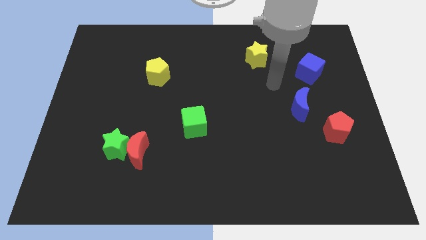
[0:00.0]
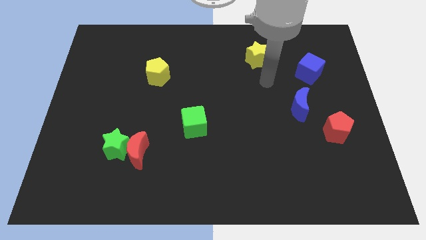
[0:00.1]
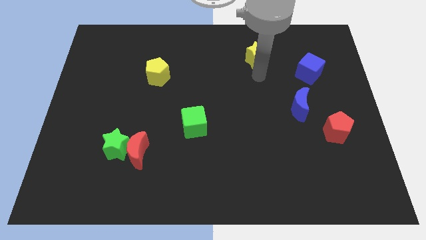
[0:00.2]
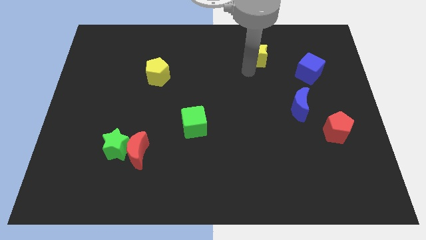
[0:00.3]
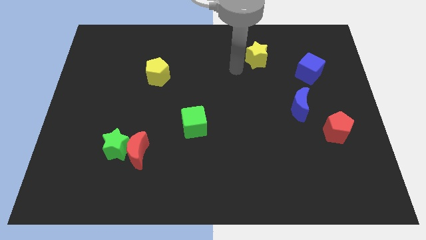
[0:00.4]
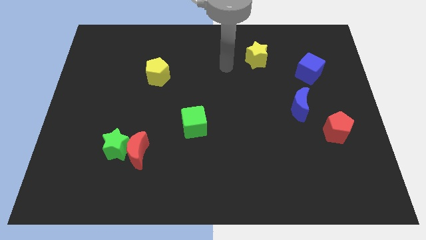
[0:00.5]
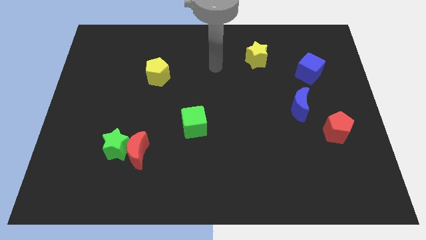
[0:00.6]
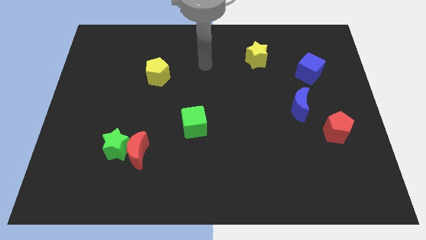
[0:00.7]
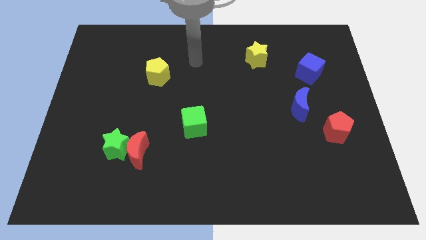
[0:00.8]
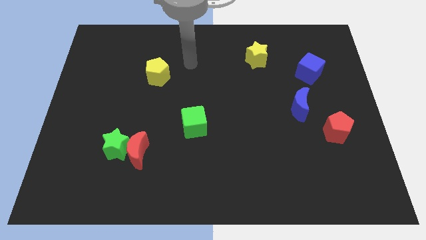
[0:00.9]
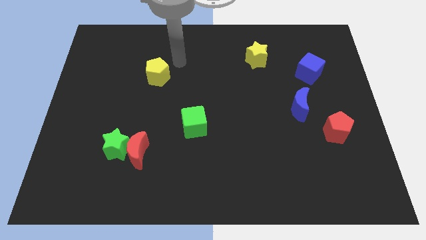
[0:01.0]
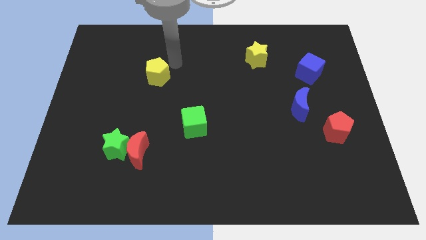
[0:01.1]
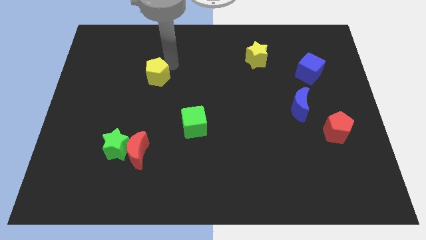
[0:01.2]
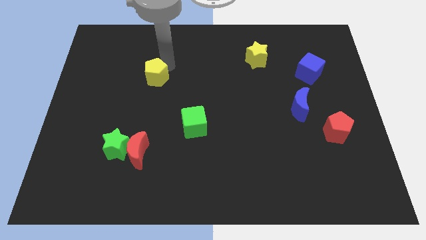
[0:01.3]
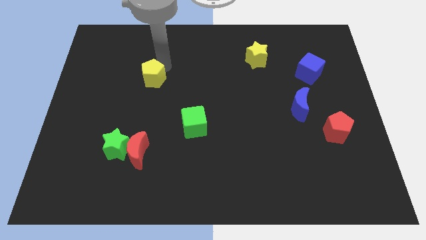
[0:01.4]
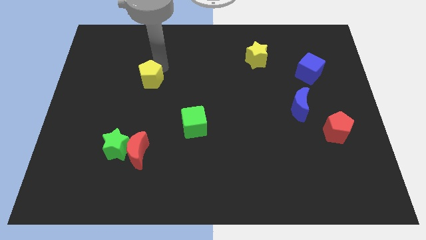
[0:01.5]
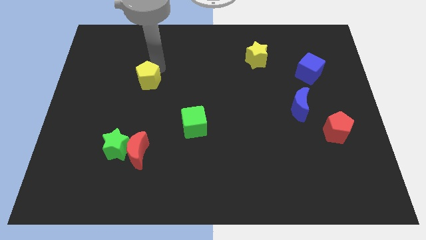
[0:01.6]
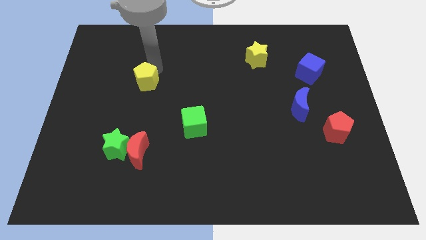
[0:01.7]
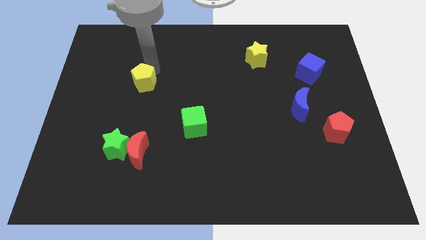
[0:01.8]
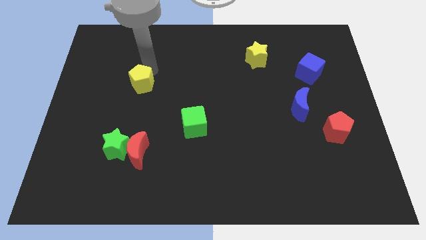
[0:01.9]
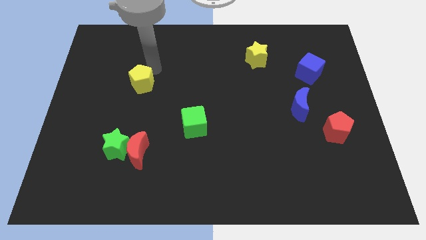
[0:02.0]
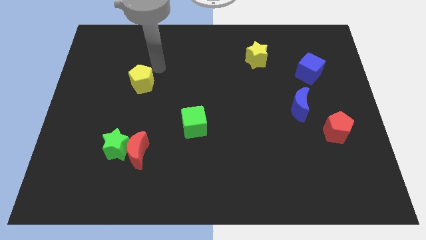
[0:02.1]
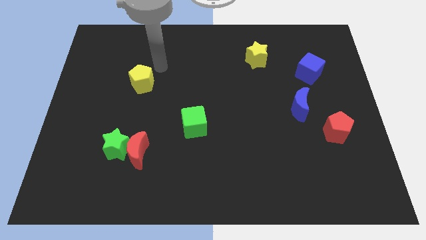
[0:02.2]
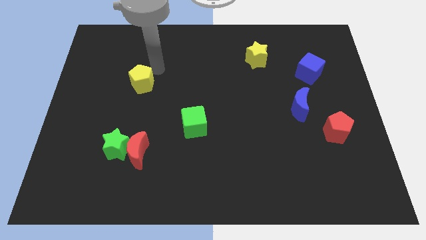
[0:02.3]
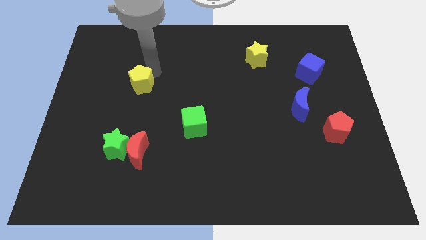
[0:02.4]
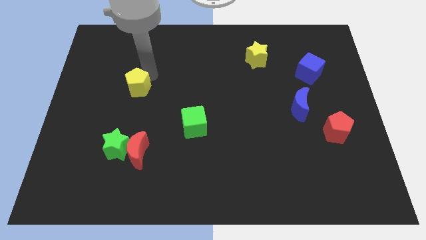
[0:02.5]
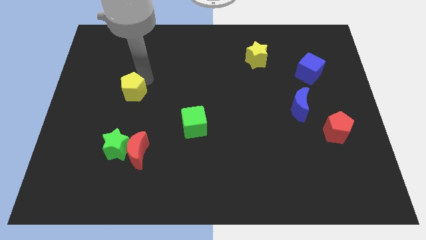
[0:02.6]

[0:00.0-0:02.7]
slide the yellow pentagon a little down and left

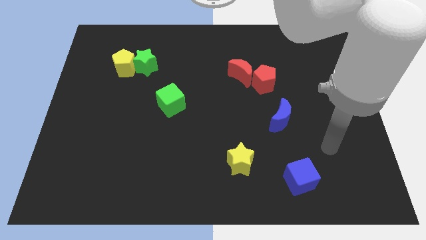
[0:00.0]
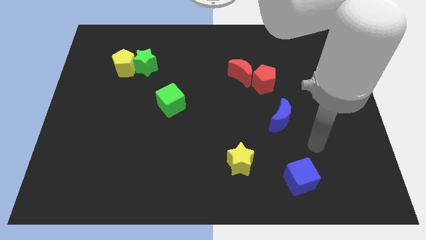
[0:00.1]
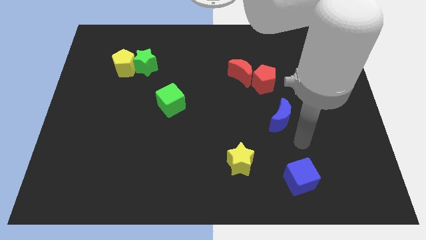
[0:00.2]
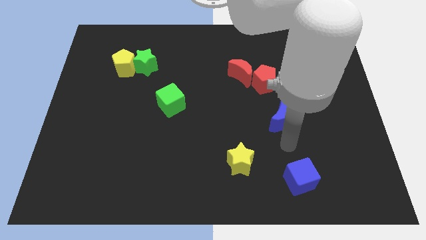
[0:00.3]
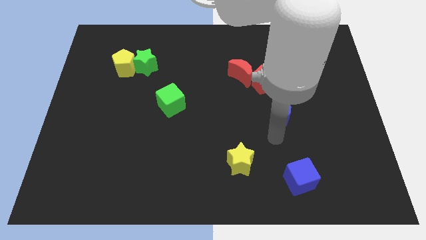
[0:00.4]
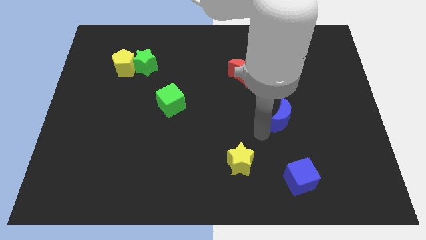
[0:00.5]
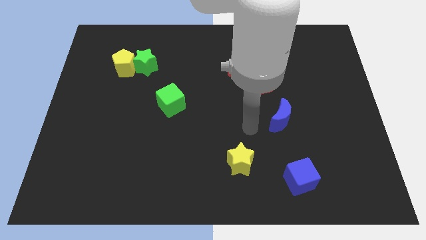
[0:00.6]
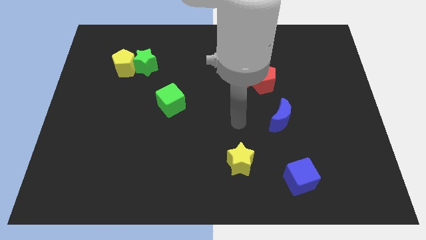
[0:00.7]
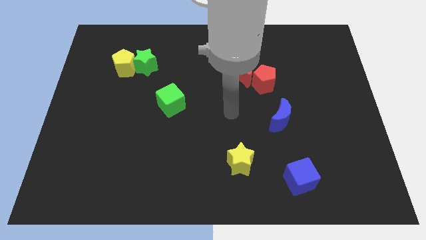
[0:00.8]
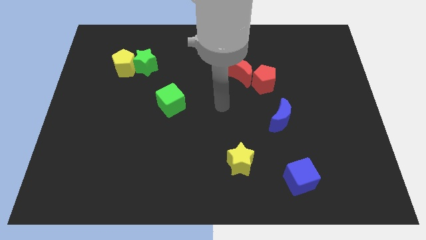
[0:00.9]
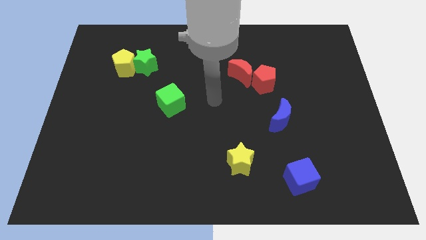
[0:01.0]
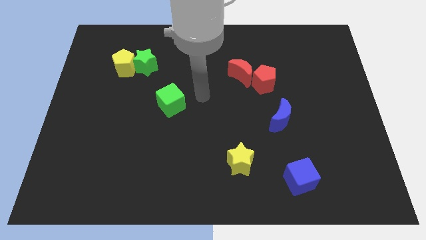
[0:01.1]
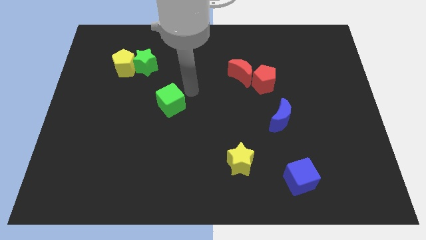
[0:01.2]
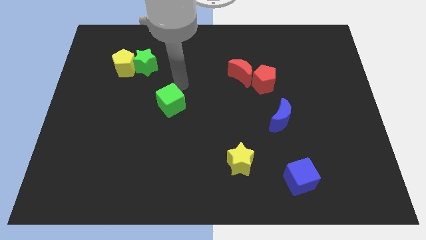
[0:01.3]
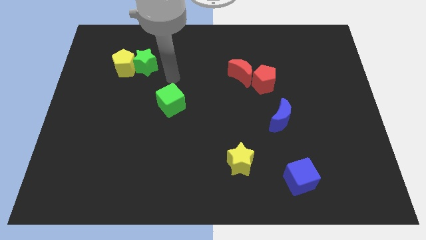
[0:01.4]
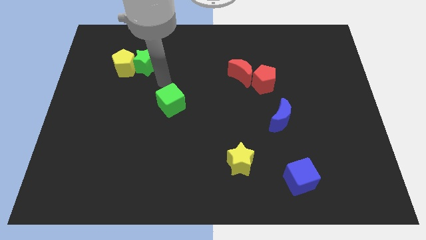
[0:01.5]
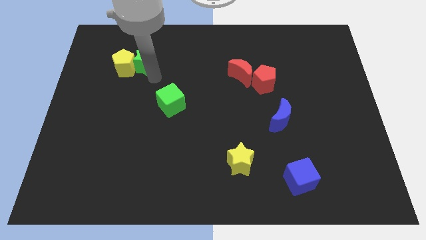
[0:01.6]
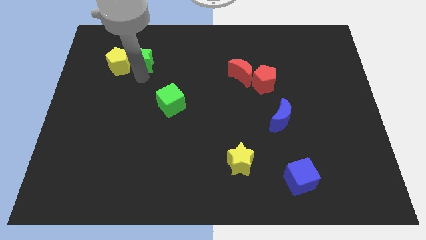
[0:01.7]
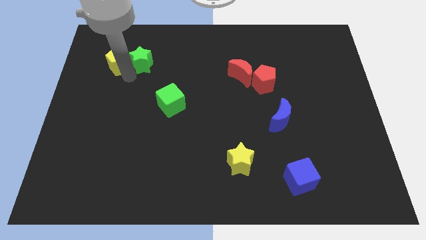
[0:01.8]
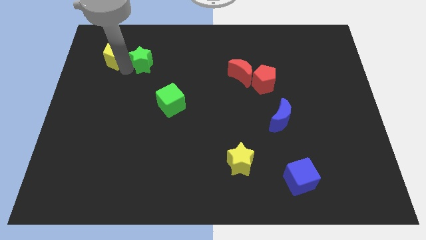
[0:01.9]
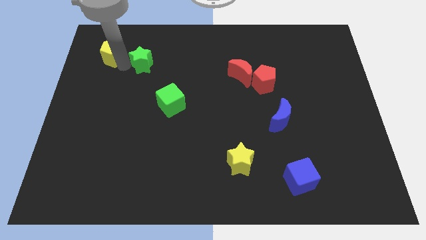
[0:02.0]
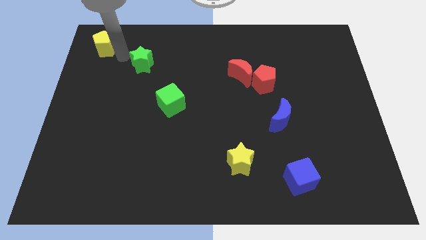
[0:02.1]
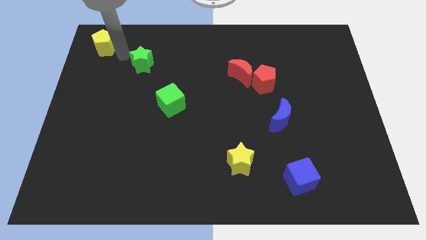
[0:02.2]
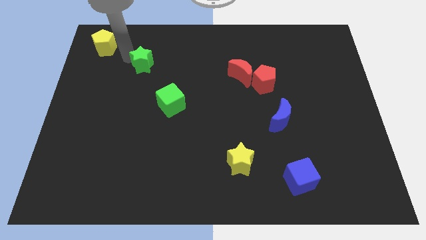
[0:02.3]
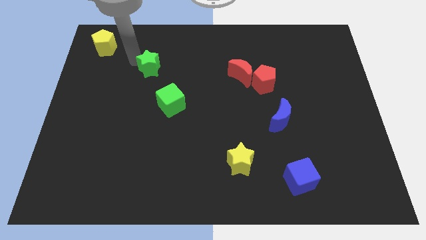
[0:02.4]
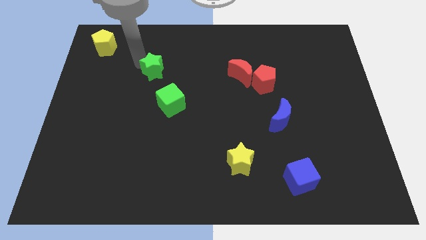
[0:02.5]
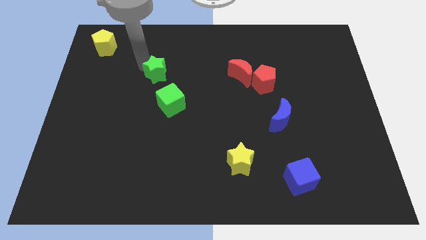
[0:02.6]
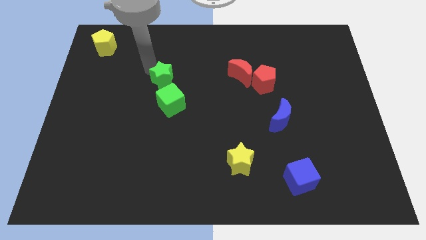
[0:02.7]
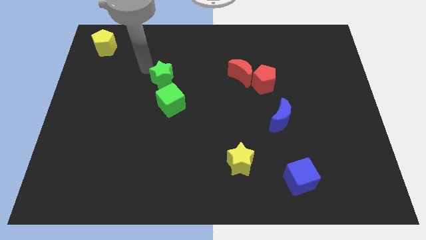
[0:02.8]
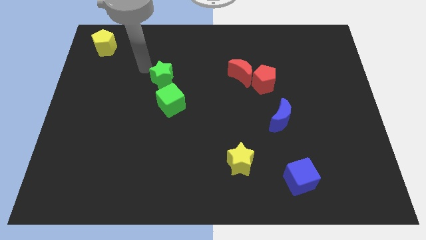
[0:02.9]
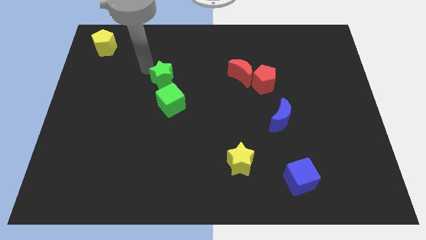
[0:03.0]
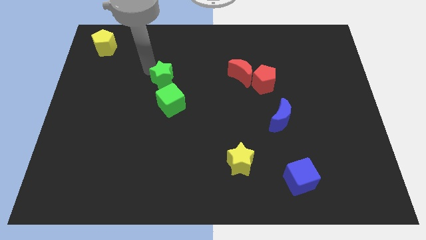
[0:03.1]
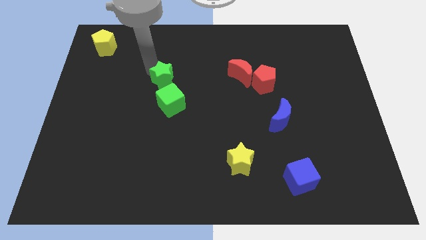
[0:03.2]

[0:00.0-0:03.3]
move the green star diagonally down and to the right somewhat

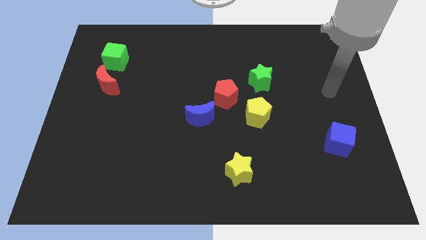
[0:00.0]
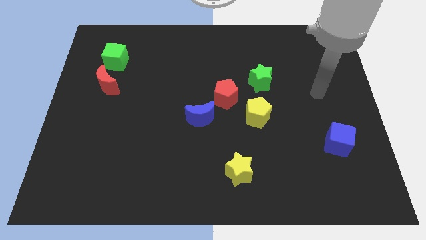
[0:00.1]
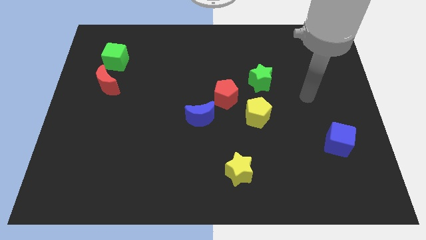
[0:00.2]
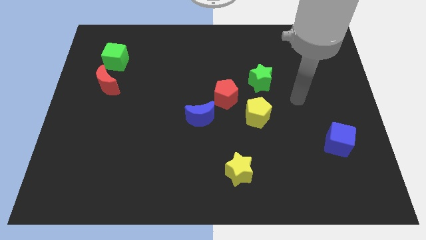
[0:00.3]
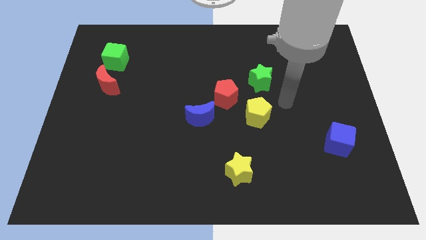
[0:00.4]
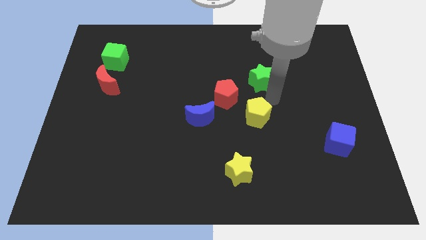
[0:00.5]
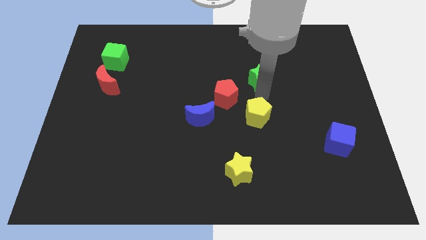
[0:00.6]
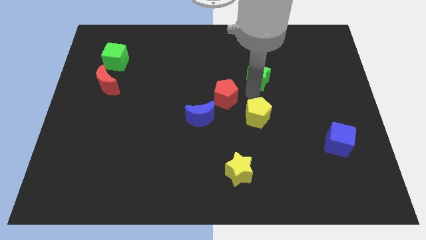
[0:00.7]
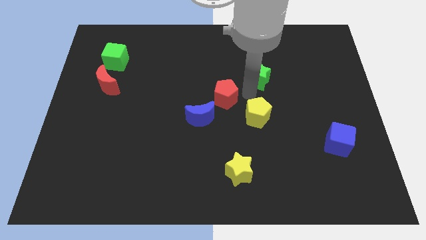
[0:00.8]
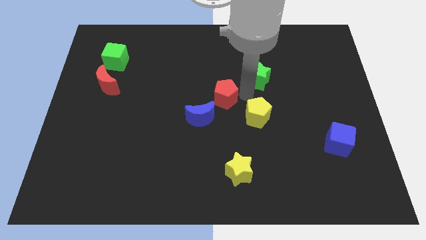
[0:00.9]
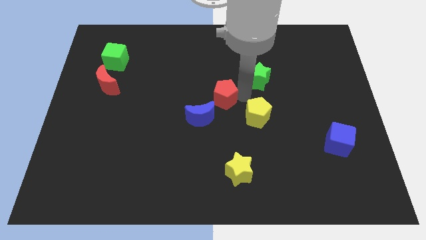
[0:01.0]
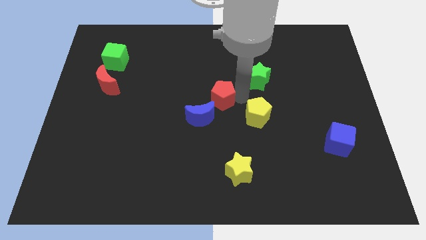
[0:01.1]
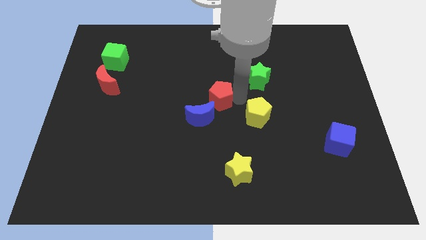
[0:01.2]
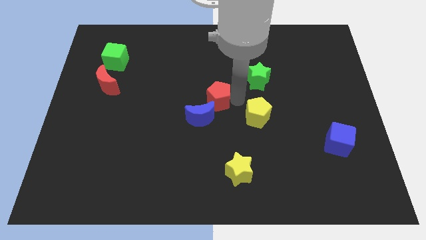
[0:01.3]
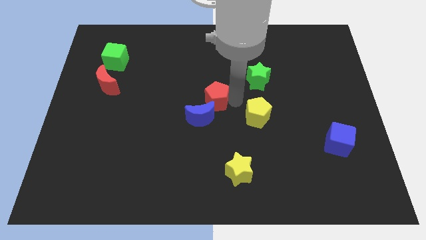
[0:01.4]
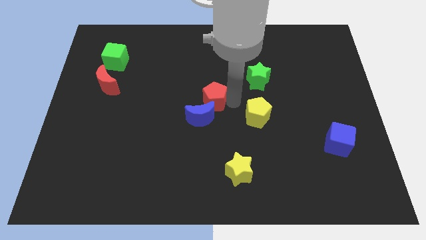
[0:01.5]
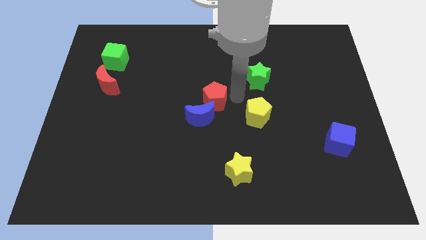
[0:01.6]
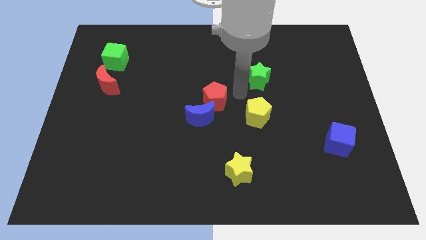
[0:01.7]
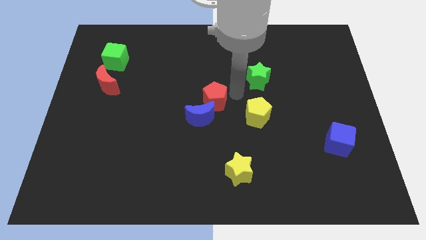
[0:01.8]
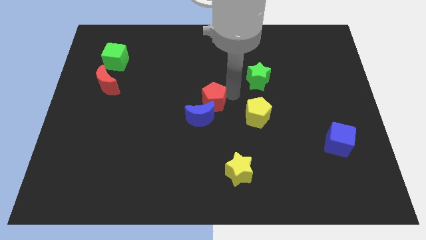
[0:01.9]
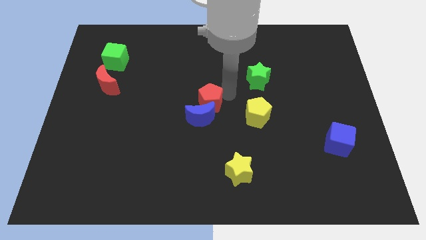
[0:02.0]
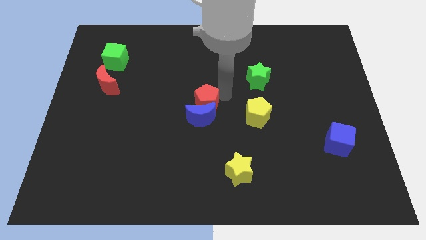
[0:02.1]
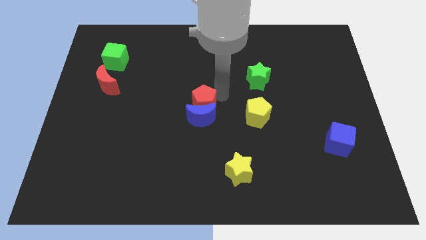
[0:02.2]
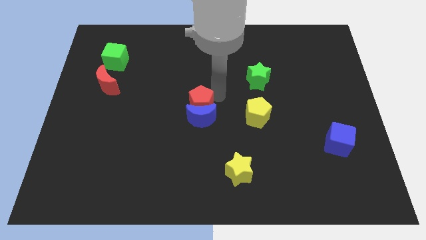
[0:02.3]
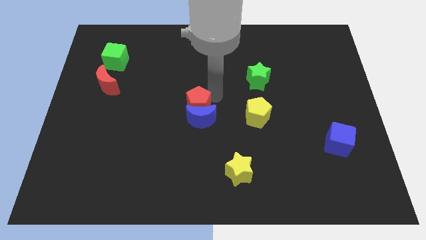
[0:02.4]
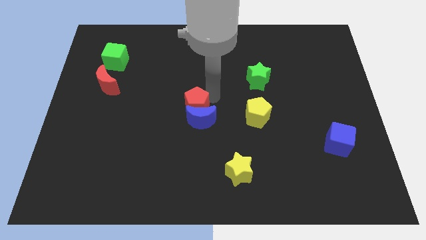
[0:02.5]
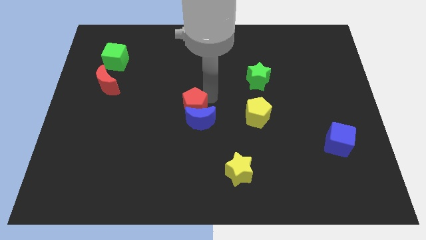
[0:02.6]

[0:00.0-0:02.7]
move the red pentagon downwards and then to the left a little bit
